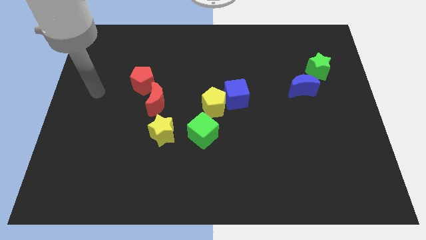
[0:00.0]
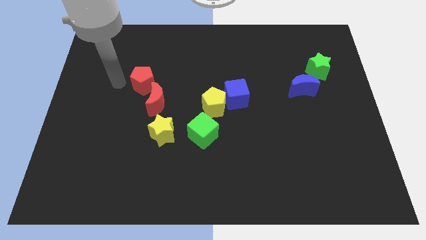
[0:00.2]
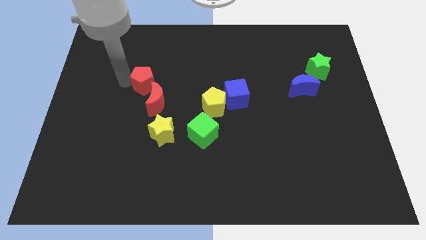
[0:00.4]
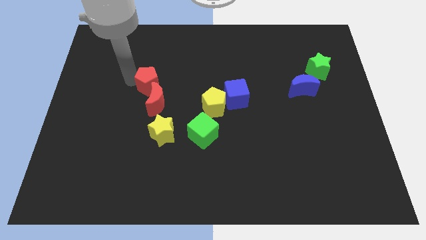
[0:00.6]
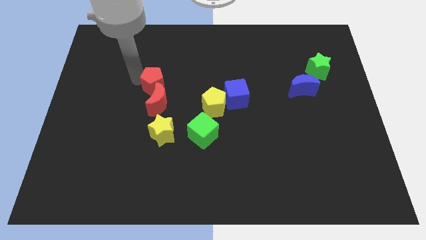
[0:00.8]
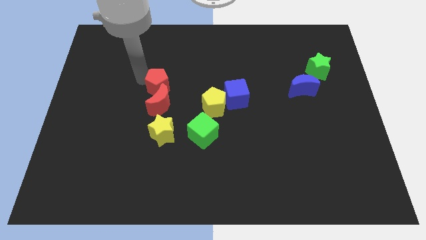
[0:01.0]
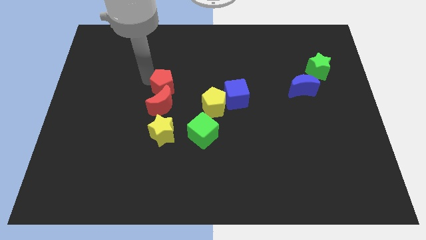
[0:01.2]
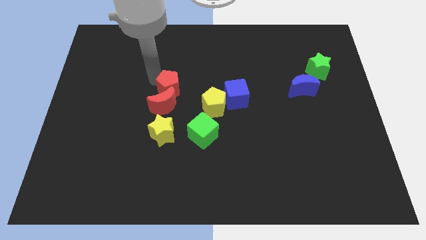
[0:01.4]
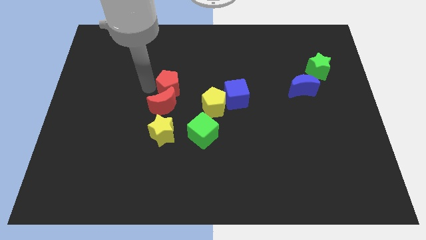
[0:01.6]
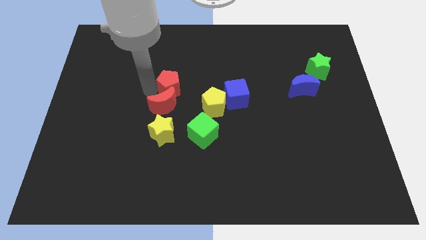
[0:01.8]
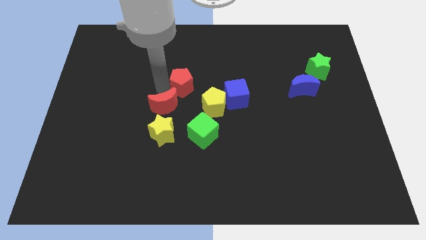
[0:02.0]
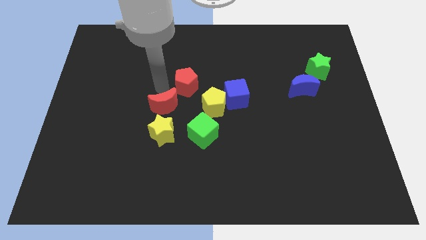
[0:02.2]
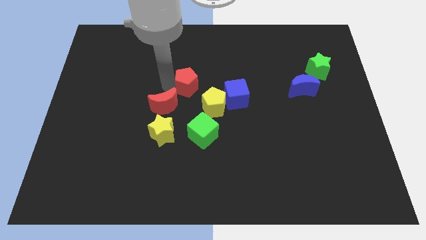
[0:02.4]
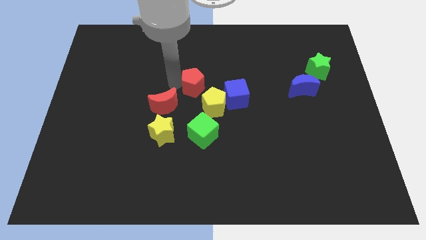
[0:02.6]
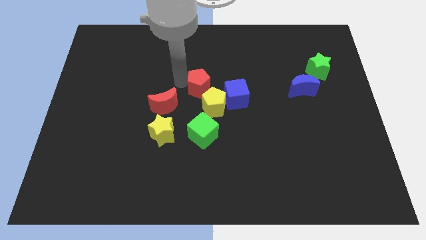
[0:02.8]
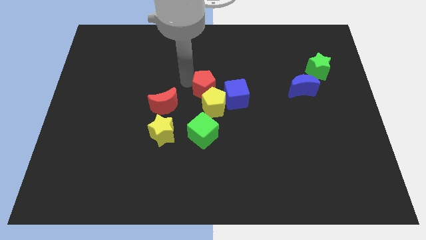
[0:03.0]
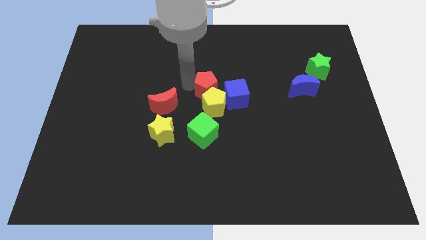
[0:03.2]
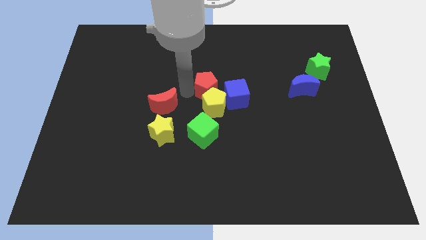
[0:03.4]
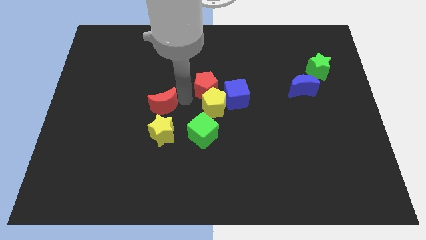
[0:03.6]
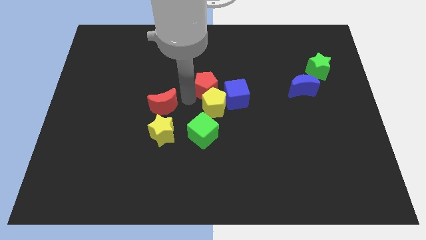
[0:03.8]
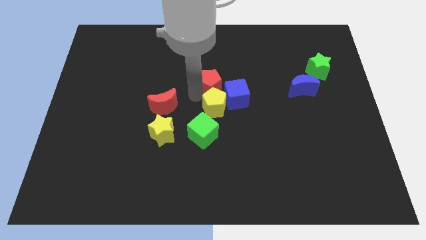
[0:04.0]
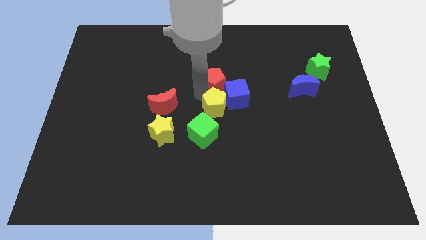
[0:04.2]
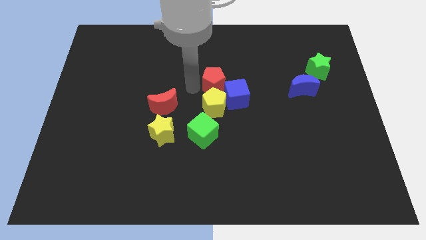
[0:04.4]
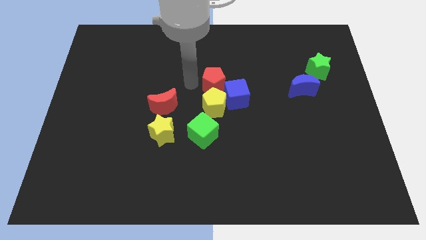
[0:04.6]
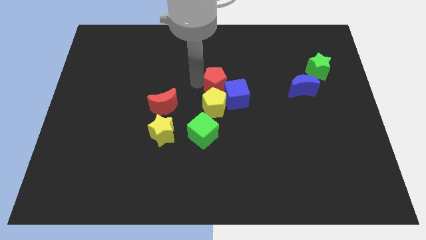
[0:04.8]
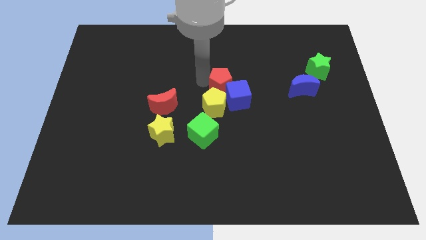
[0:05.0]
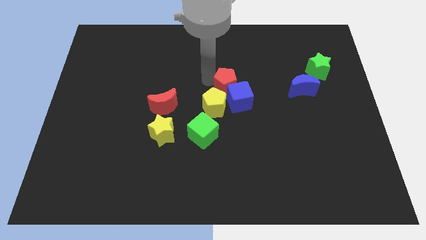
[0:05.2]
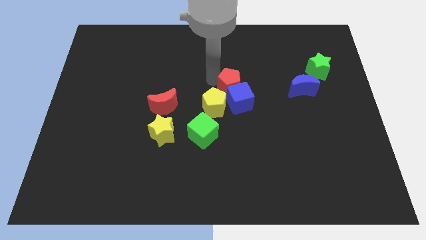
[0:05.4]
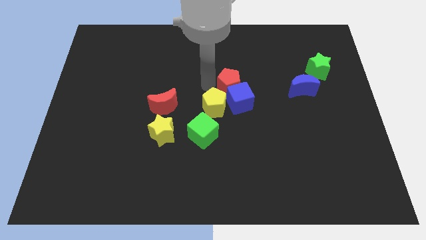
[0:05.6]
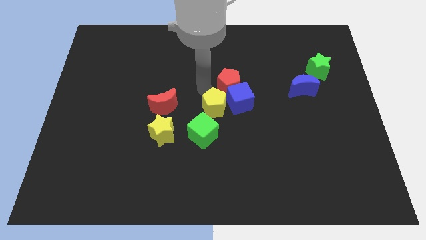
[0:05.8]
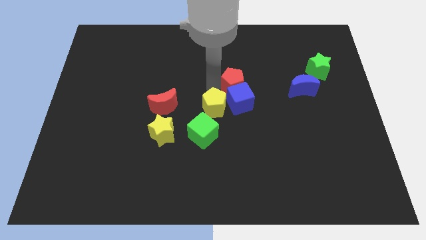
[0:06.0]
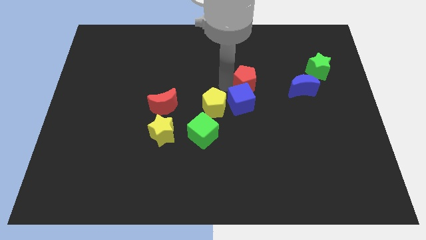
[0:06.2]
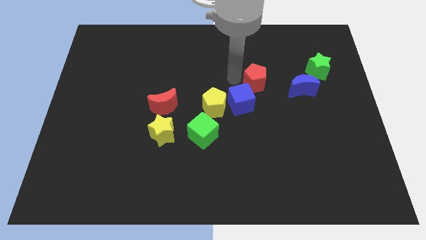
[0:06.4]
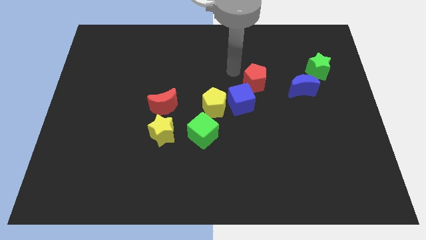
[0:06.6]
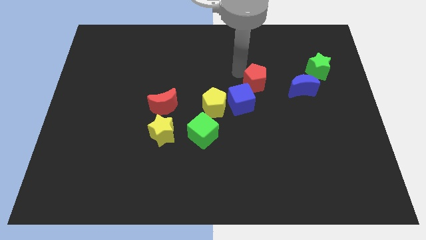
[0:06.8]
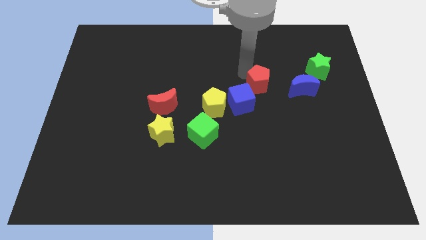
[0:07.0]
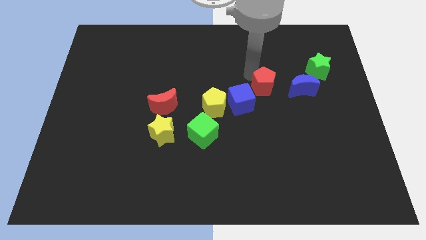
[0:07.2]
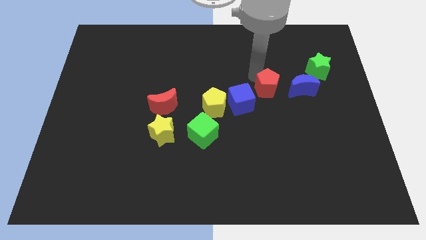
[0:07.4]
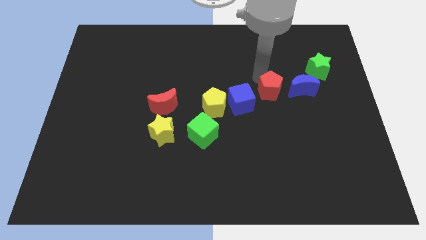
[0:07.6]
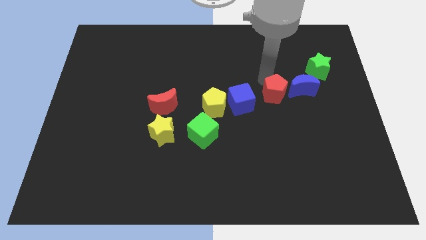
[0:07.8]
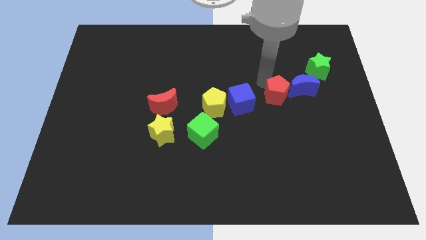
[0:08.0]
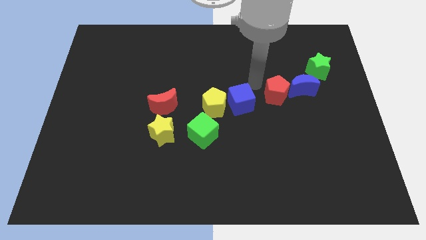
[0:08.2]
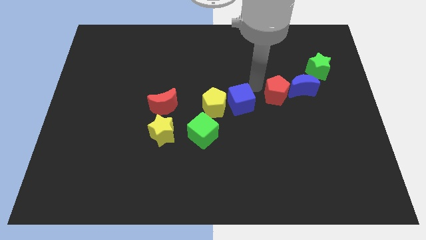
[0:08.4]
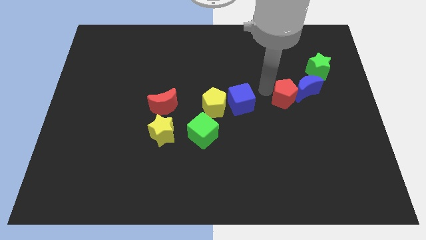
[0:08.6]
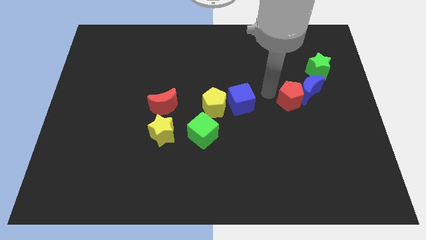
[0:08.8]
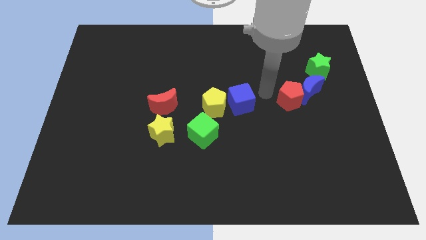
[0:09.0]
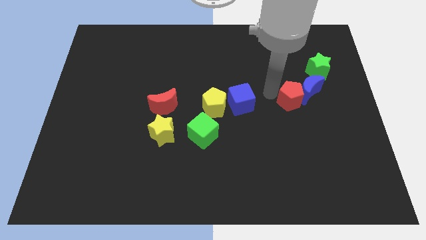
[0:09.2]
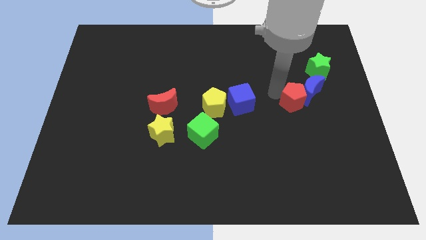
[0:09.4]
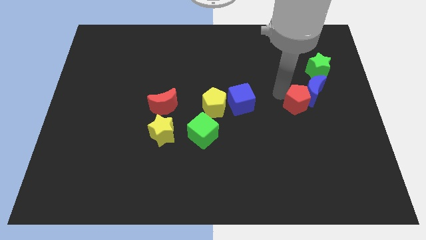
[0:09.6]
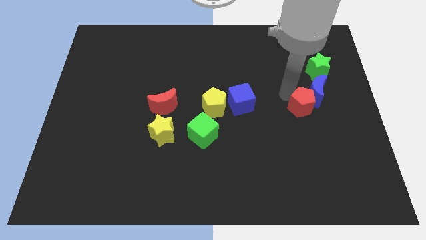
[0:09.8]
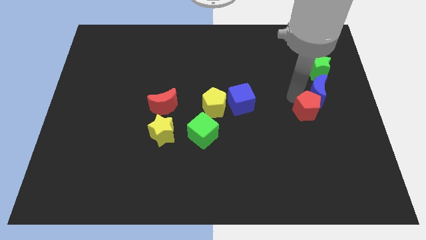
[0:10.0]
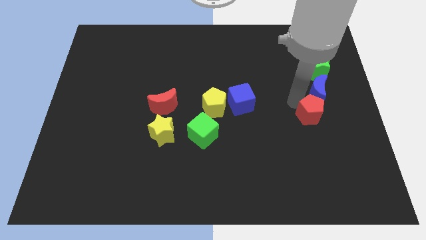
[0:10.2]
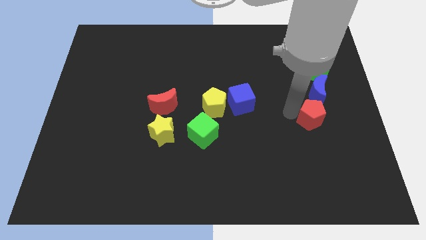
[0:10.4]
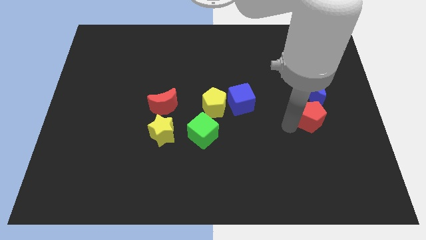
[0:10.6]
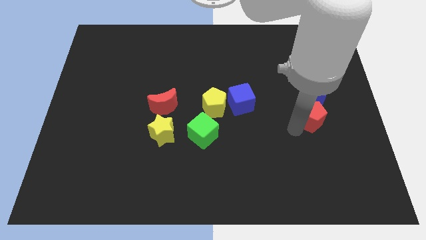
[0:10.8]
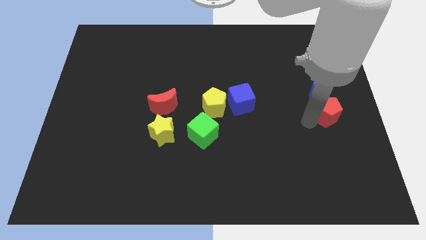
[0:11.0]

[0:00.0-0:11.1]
put the red pentagon to the right side

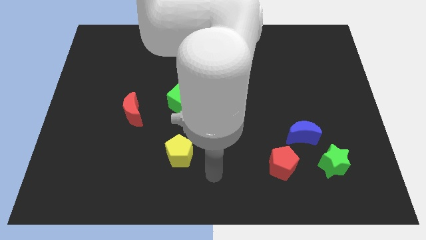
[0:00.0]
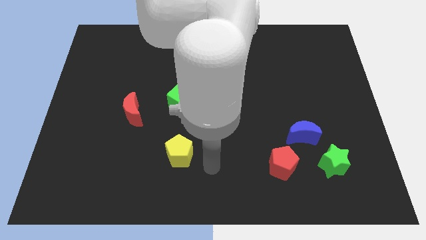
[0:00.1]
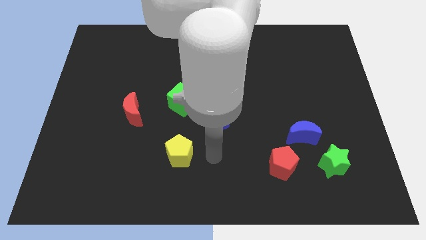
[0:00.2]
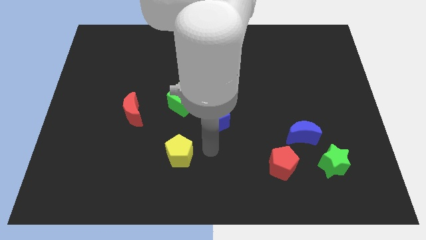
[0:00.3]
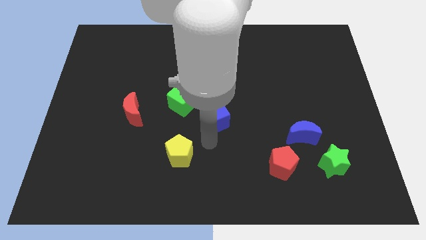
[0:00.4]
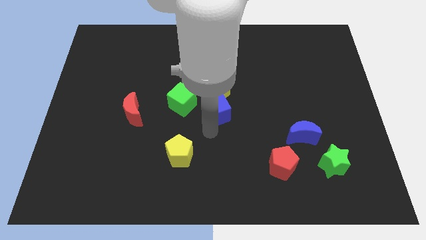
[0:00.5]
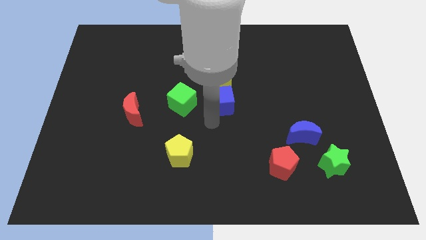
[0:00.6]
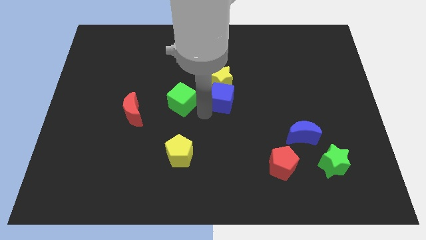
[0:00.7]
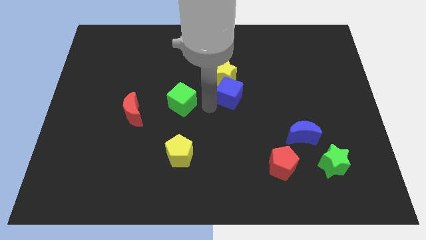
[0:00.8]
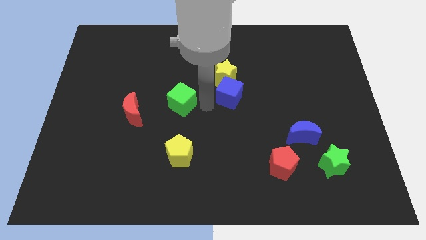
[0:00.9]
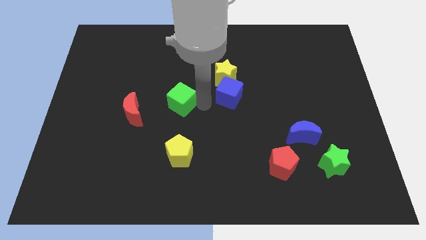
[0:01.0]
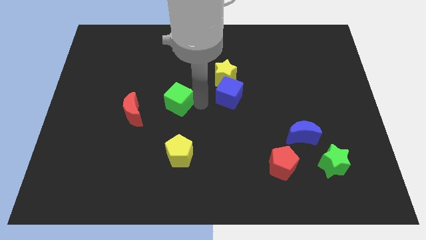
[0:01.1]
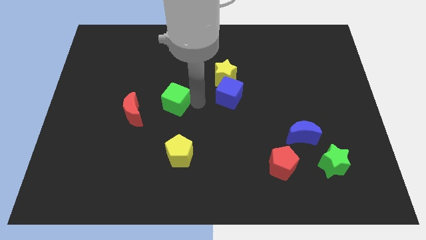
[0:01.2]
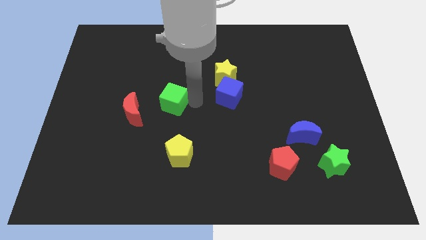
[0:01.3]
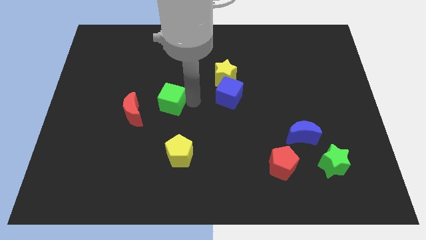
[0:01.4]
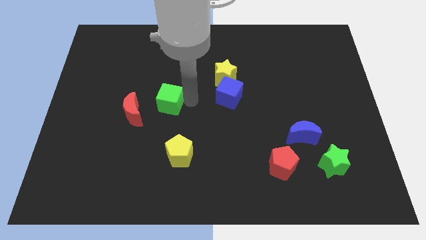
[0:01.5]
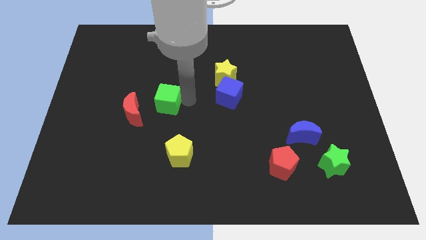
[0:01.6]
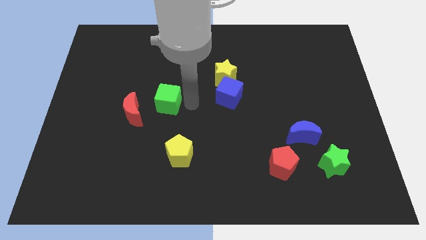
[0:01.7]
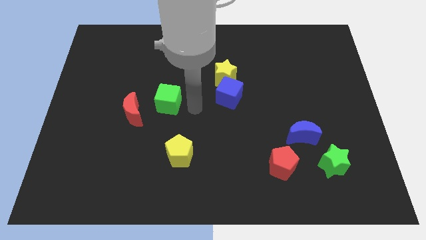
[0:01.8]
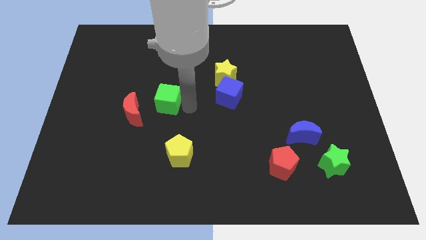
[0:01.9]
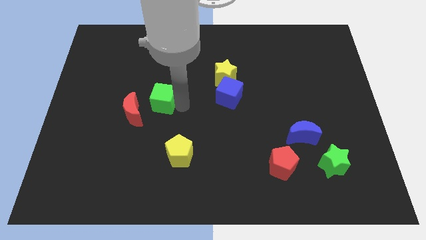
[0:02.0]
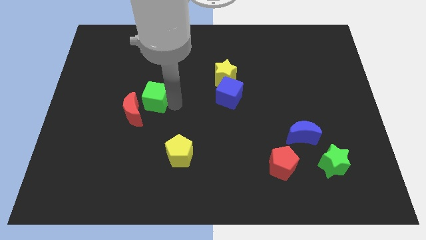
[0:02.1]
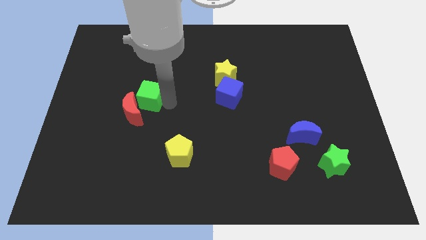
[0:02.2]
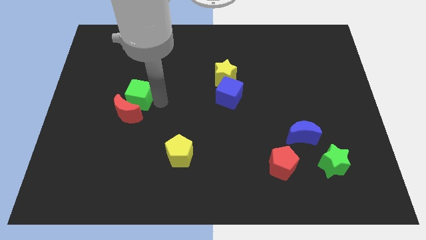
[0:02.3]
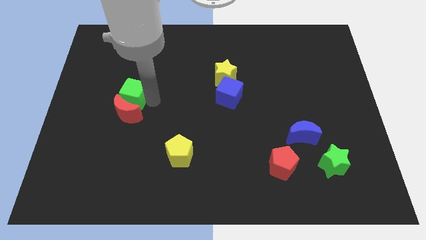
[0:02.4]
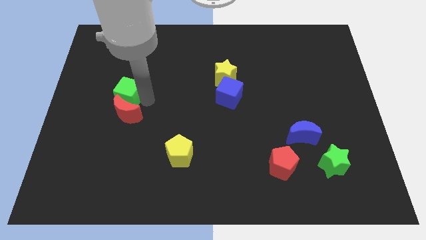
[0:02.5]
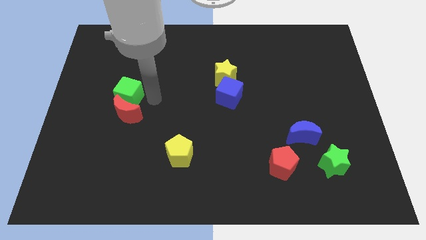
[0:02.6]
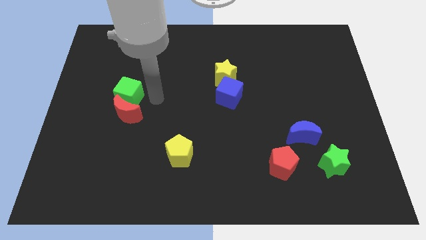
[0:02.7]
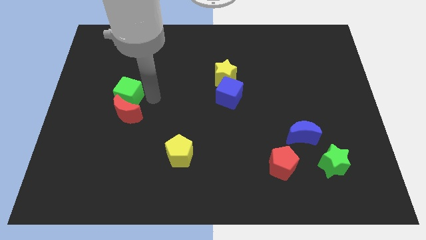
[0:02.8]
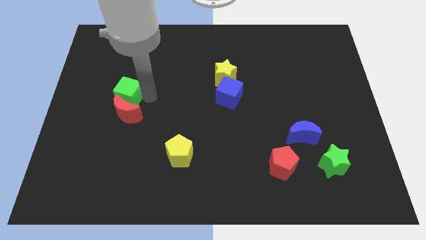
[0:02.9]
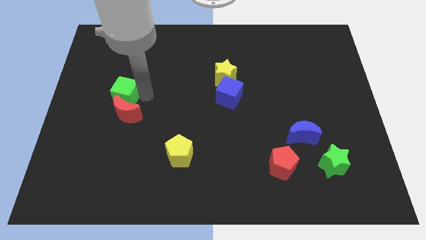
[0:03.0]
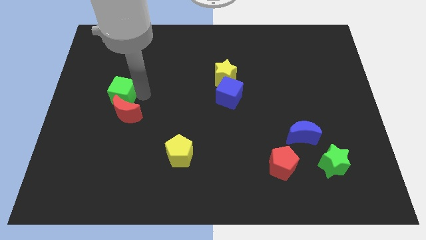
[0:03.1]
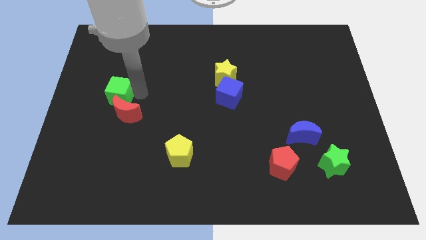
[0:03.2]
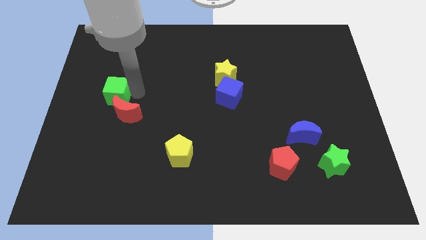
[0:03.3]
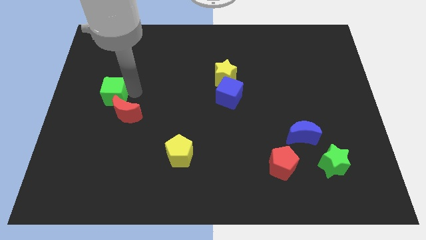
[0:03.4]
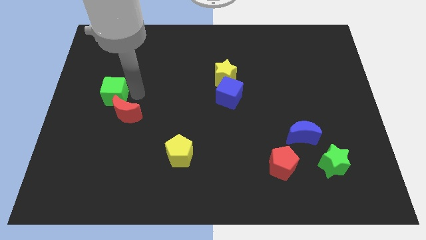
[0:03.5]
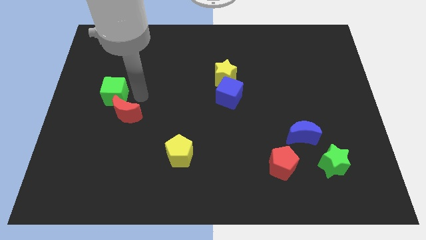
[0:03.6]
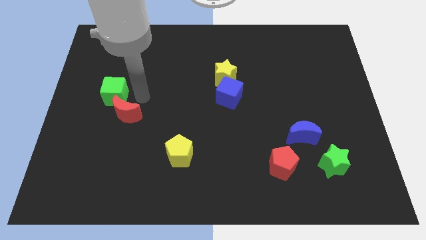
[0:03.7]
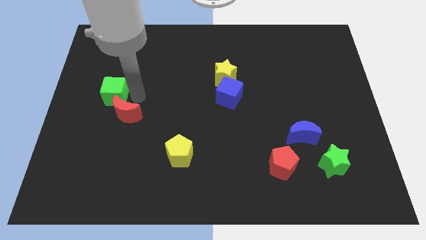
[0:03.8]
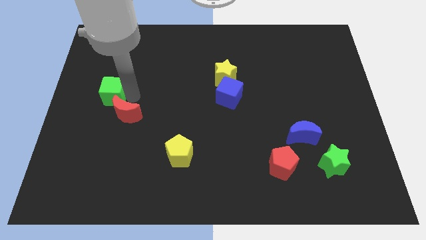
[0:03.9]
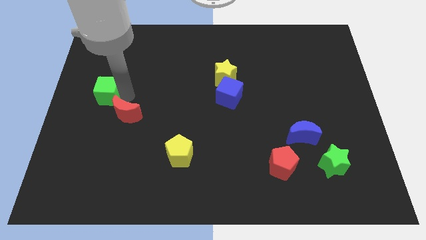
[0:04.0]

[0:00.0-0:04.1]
put the green cube to the left side of the board
